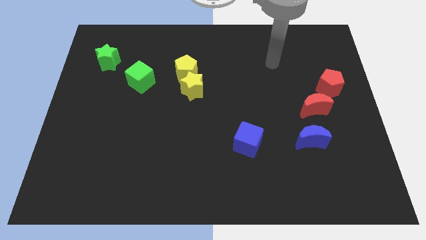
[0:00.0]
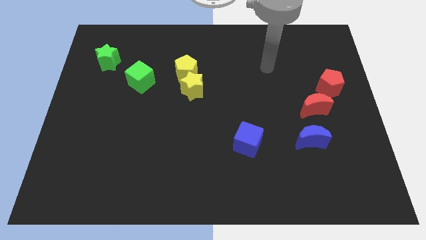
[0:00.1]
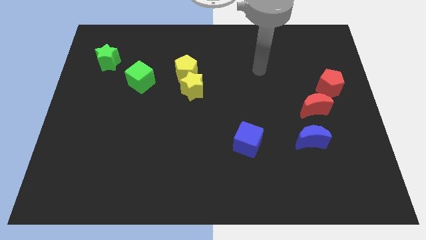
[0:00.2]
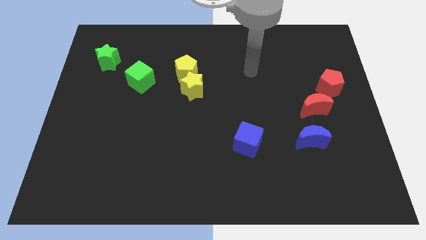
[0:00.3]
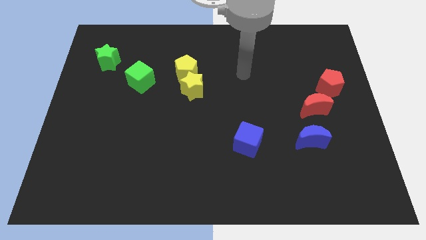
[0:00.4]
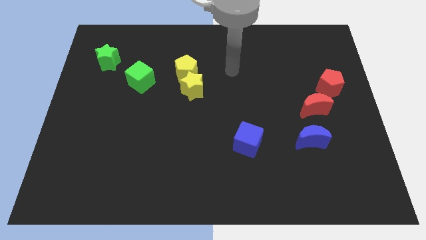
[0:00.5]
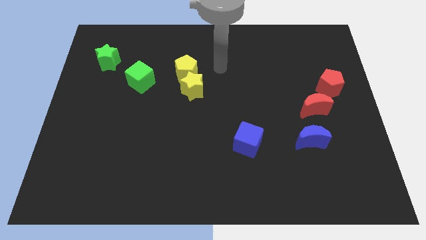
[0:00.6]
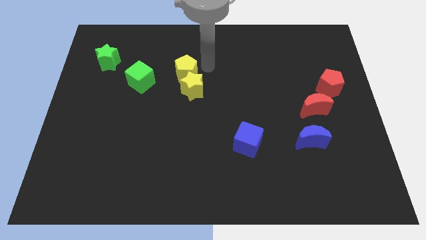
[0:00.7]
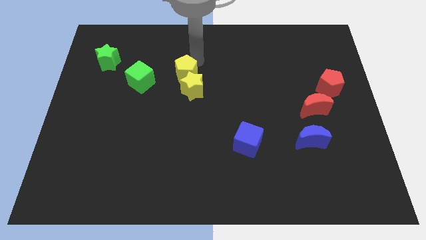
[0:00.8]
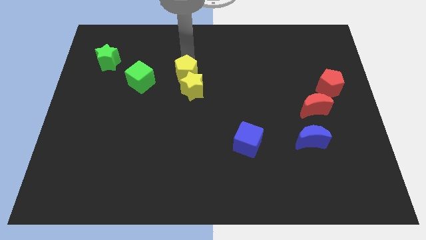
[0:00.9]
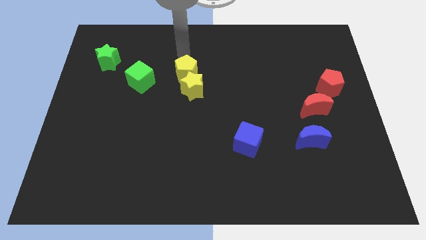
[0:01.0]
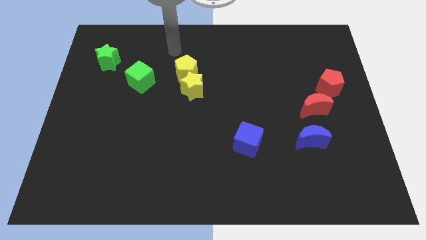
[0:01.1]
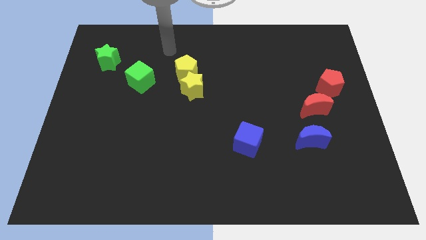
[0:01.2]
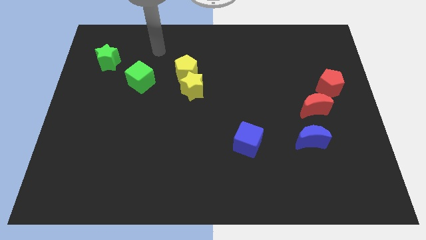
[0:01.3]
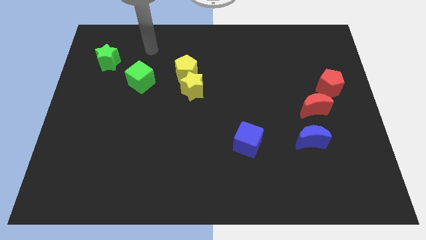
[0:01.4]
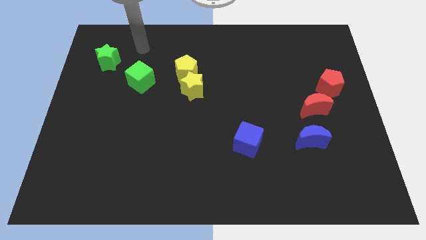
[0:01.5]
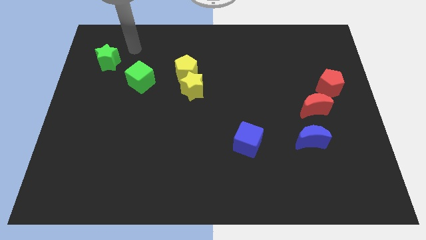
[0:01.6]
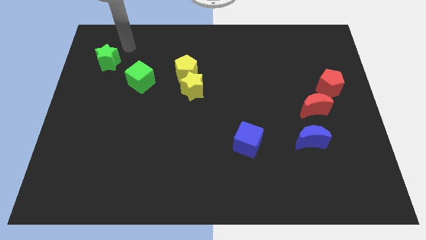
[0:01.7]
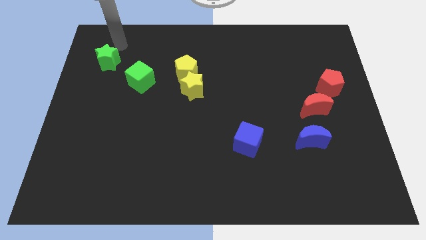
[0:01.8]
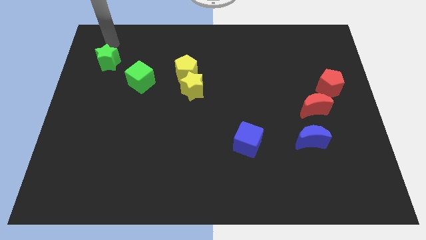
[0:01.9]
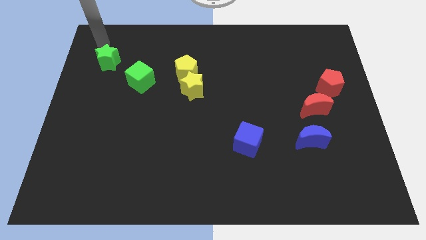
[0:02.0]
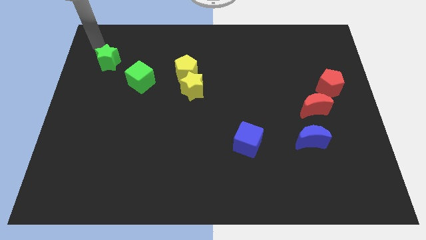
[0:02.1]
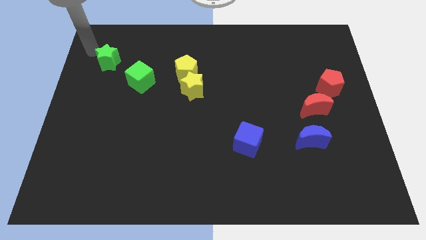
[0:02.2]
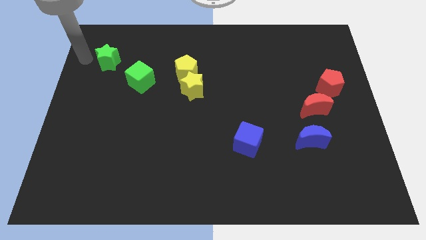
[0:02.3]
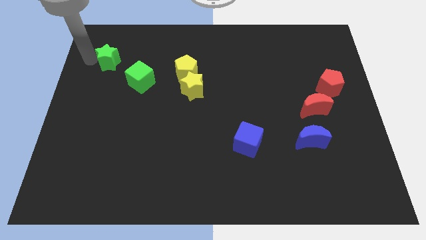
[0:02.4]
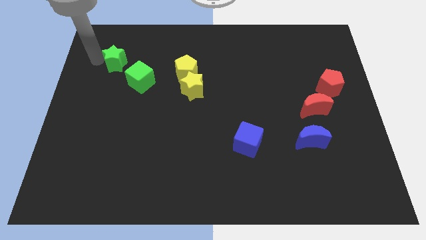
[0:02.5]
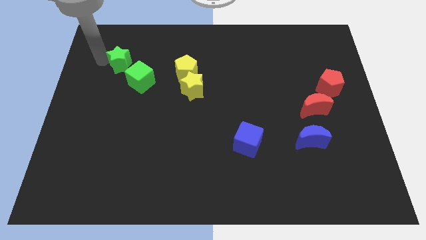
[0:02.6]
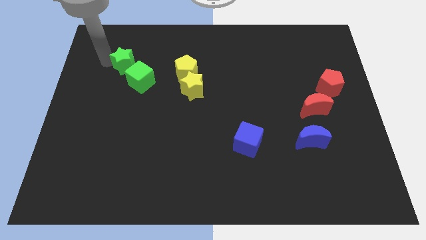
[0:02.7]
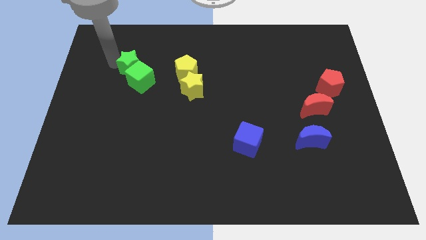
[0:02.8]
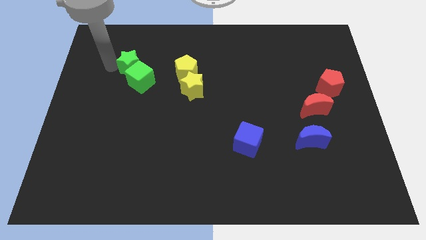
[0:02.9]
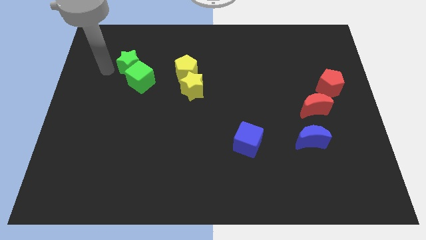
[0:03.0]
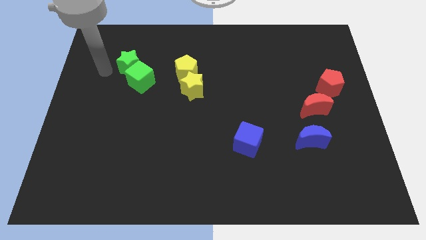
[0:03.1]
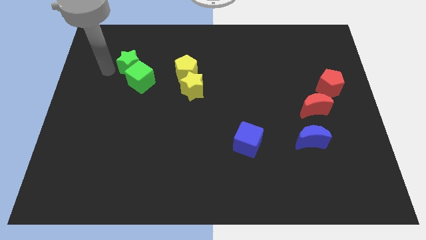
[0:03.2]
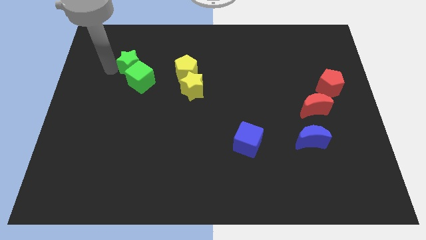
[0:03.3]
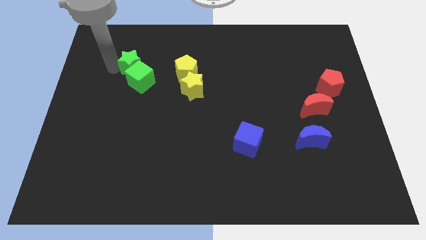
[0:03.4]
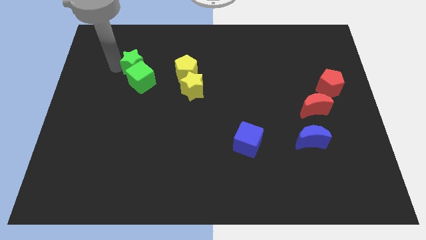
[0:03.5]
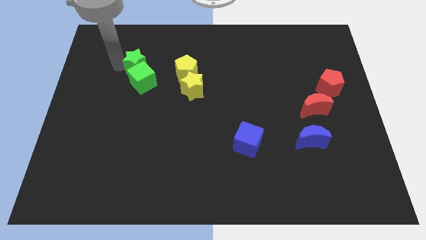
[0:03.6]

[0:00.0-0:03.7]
slide the green star to the right a bit

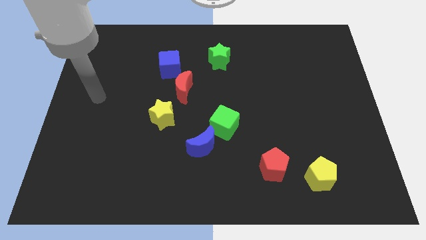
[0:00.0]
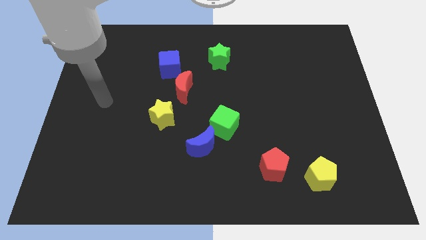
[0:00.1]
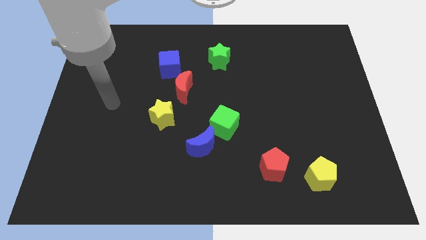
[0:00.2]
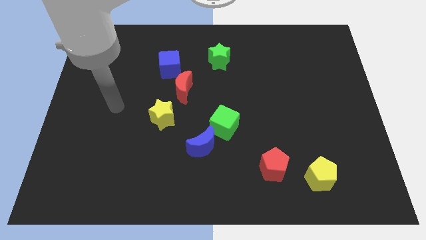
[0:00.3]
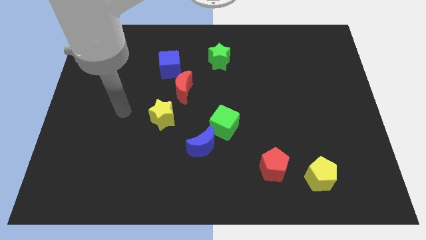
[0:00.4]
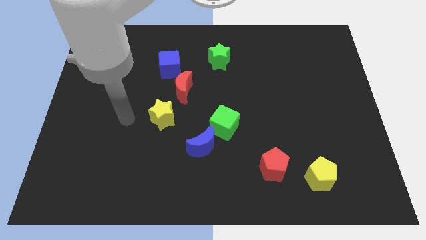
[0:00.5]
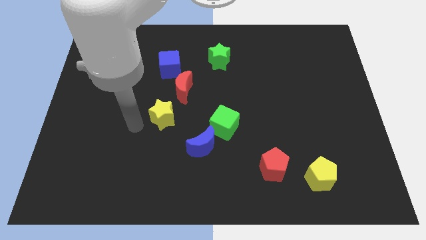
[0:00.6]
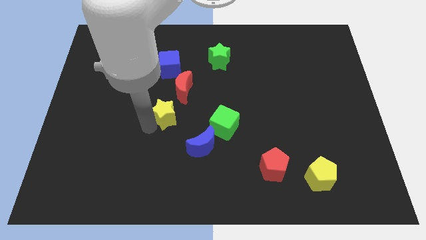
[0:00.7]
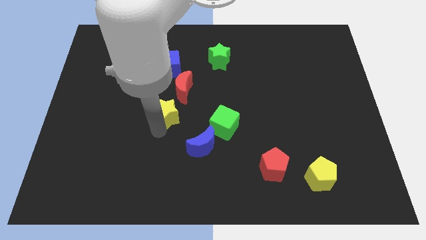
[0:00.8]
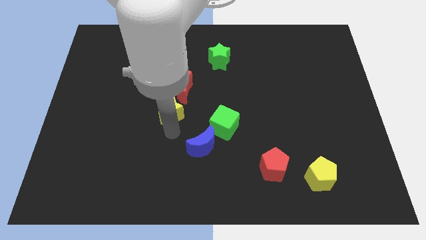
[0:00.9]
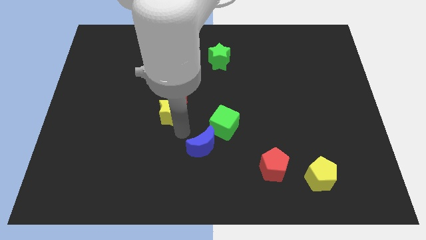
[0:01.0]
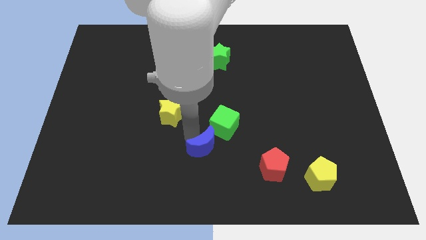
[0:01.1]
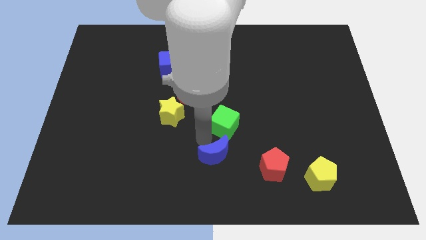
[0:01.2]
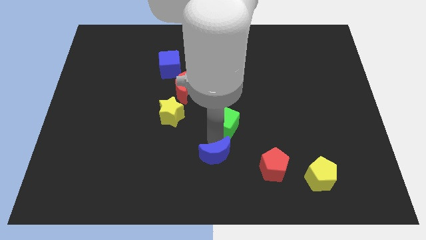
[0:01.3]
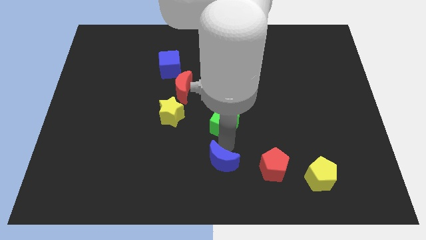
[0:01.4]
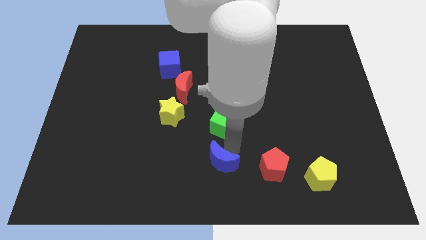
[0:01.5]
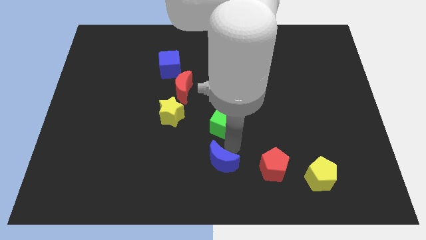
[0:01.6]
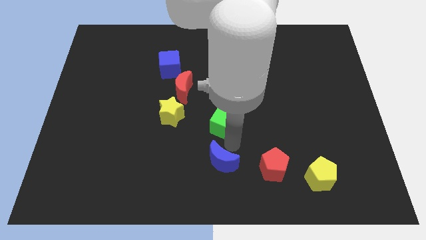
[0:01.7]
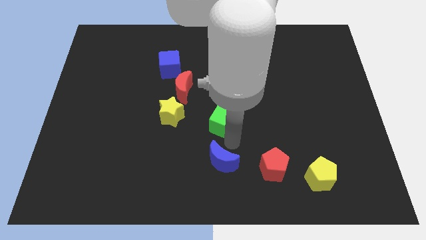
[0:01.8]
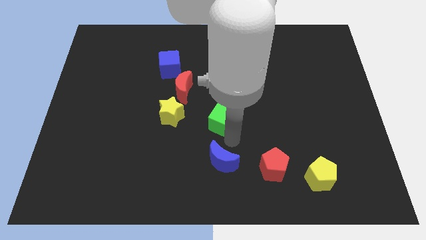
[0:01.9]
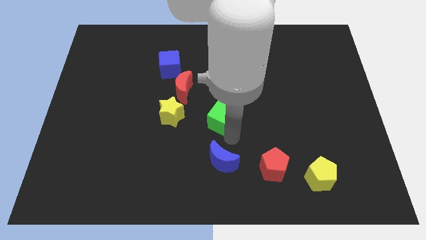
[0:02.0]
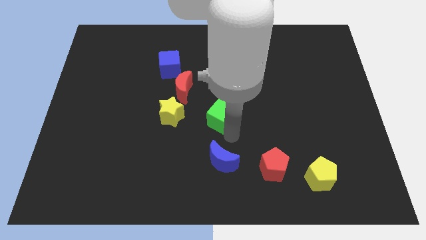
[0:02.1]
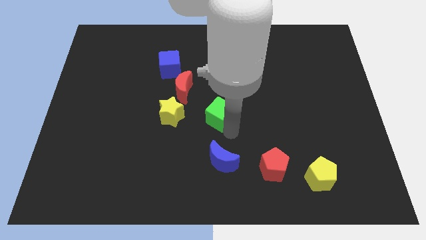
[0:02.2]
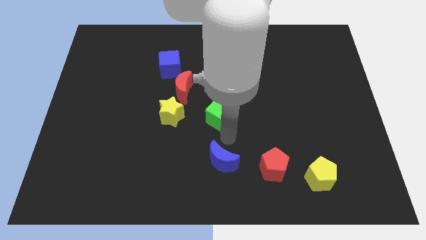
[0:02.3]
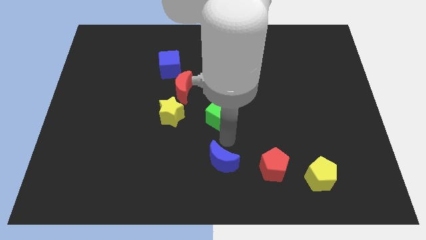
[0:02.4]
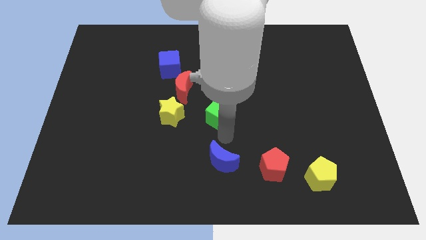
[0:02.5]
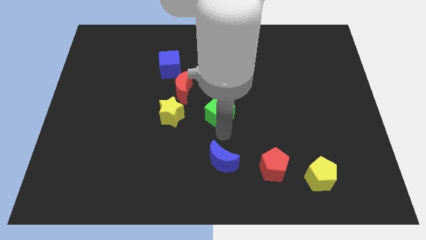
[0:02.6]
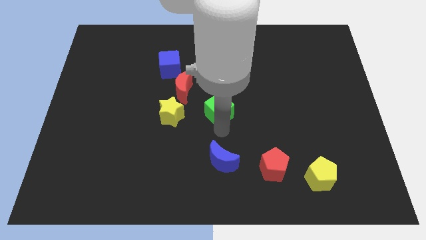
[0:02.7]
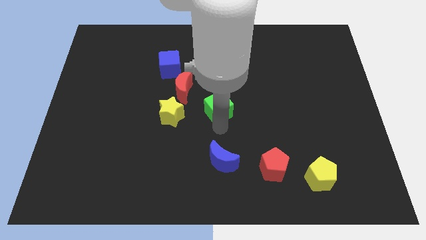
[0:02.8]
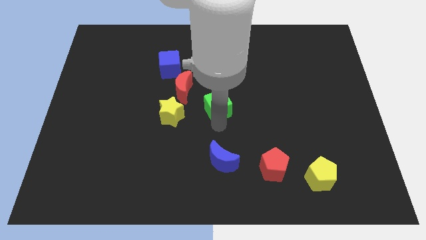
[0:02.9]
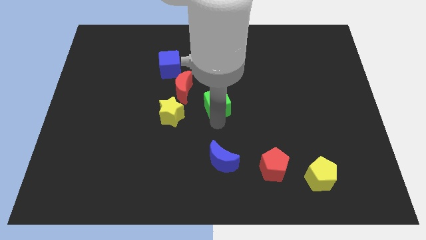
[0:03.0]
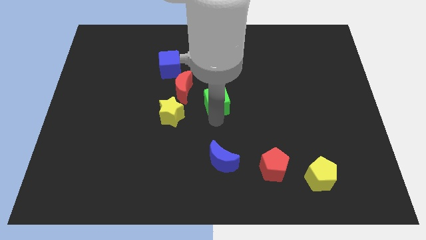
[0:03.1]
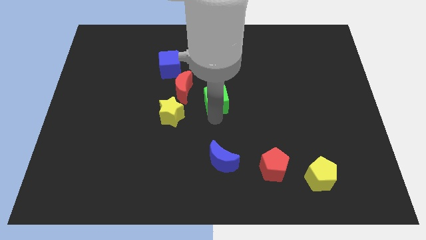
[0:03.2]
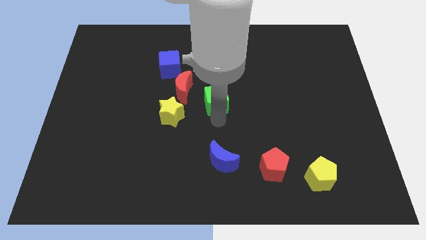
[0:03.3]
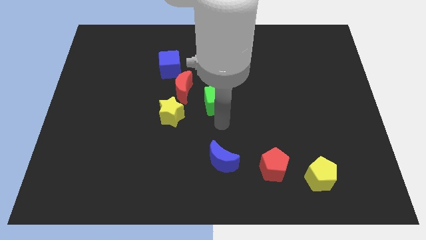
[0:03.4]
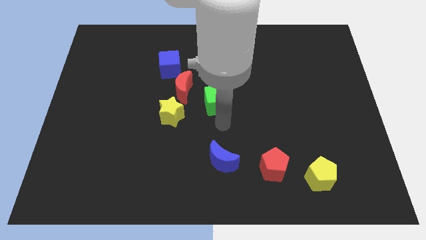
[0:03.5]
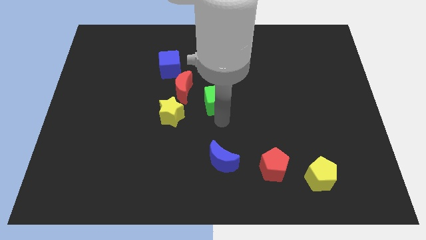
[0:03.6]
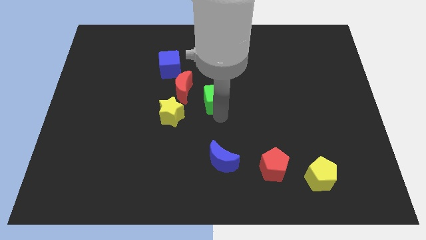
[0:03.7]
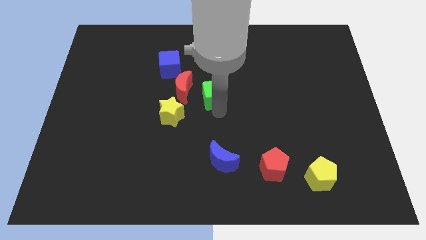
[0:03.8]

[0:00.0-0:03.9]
push the green cube slightly upwards and to the left diagonally

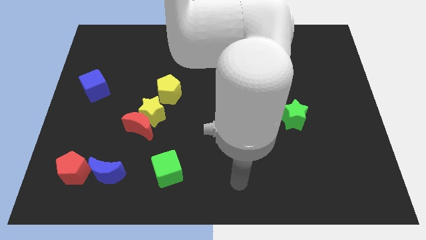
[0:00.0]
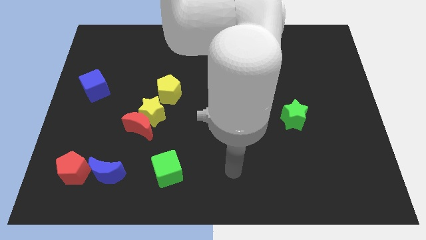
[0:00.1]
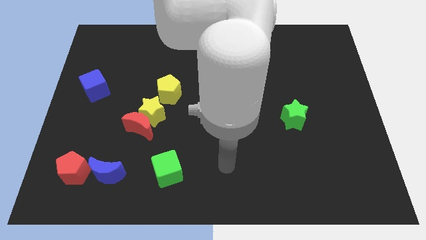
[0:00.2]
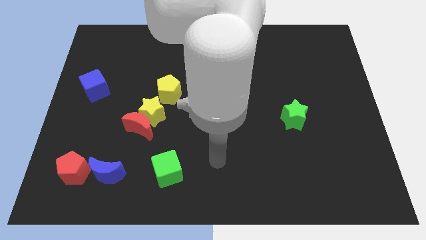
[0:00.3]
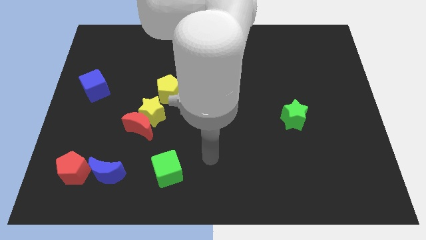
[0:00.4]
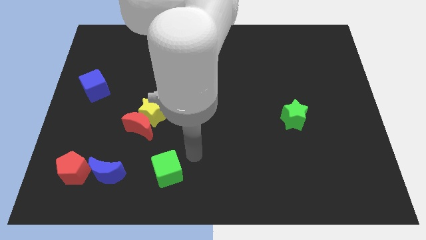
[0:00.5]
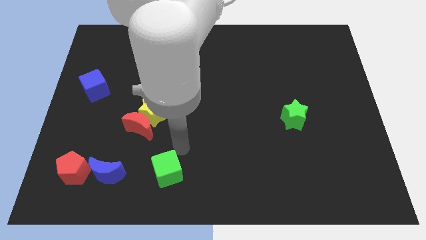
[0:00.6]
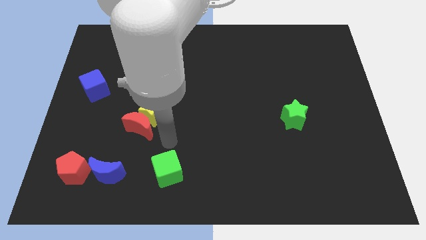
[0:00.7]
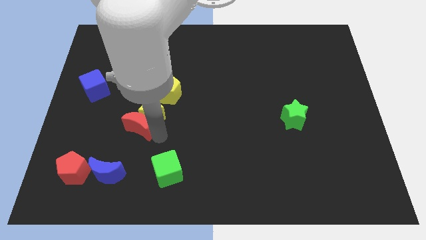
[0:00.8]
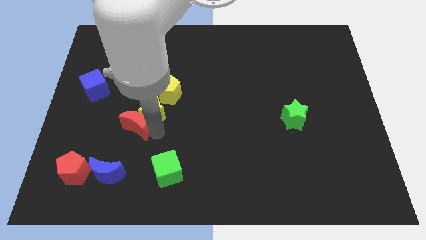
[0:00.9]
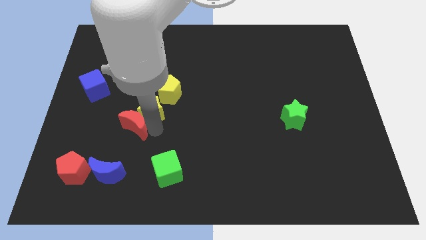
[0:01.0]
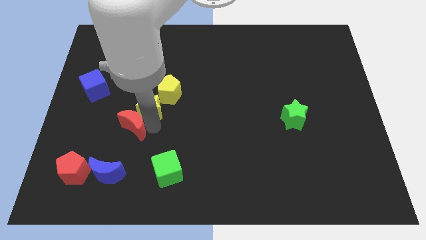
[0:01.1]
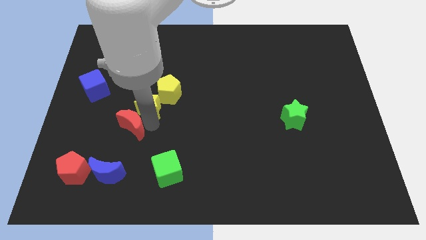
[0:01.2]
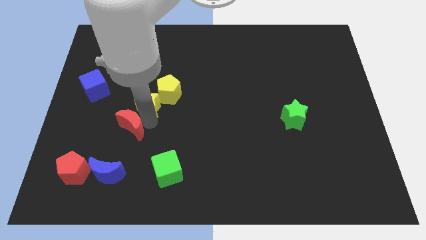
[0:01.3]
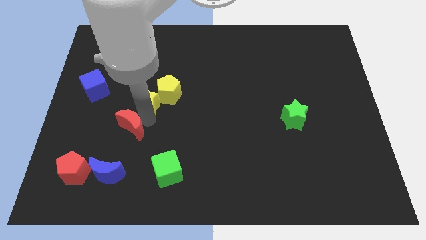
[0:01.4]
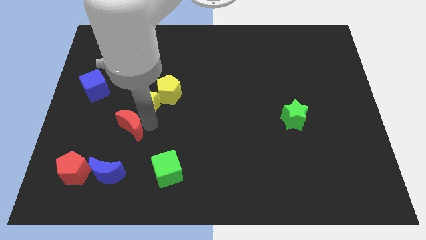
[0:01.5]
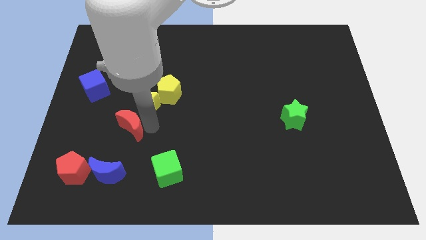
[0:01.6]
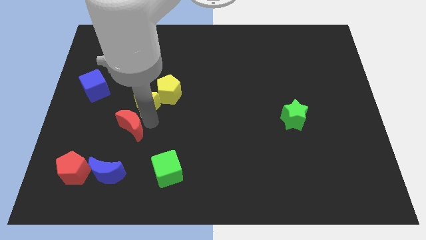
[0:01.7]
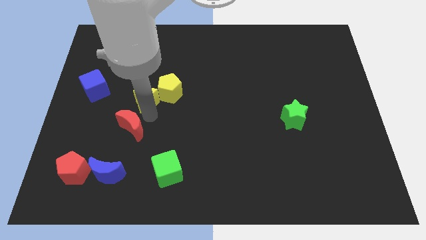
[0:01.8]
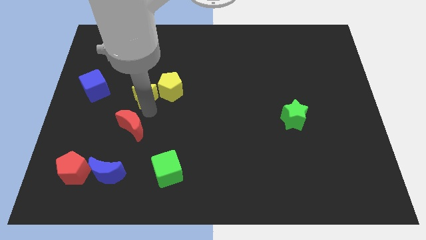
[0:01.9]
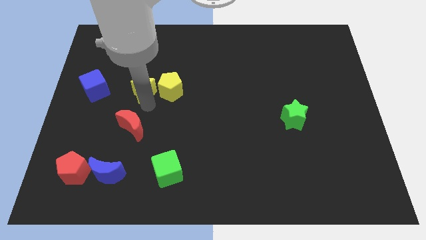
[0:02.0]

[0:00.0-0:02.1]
slightly slide the yellow star up
